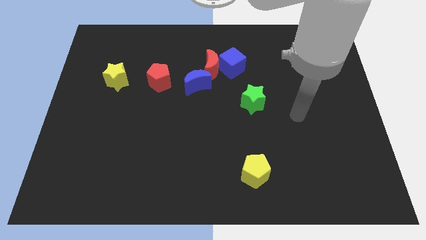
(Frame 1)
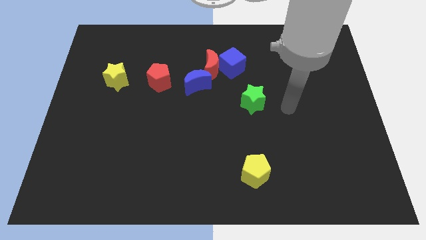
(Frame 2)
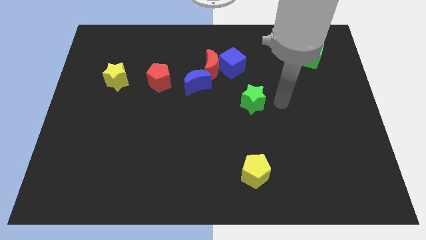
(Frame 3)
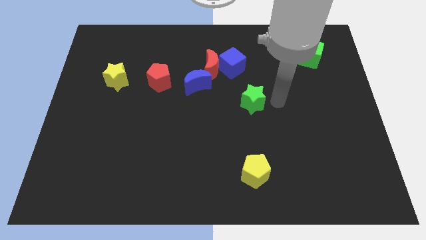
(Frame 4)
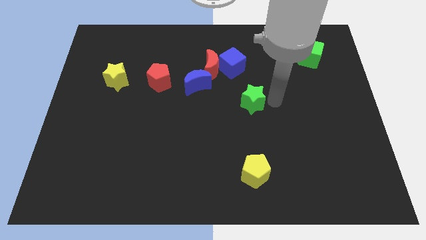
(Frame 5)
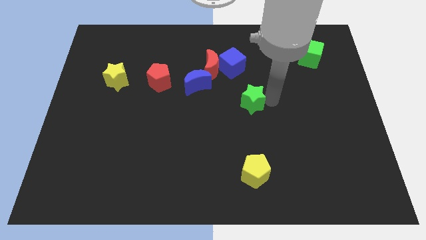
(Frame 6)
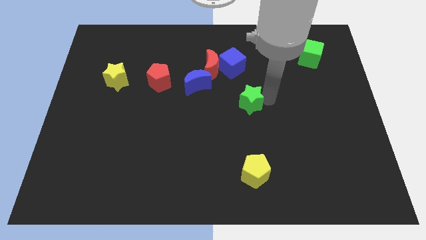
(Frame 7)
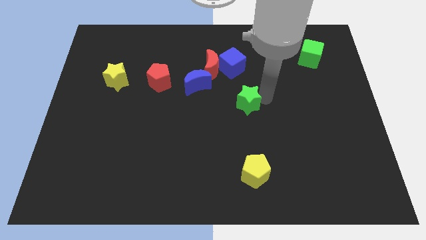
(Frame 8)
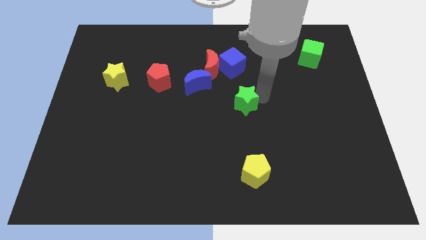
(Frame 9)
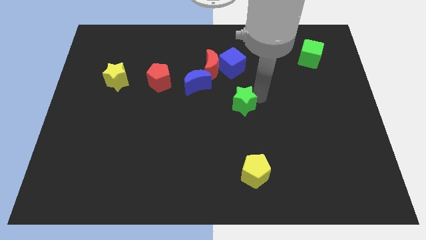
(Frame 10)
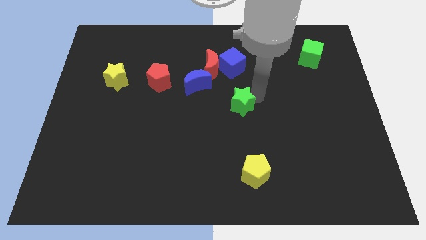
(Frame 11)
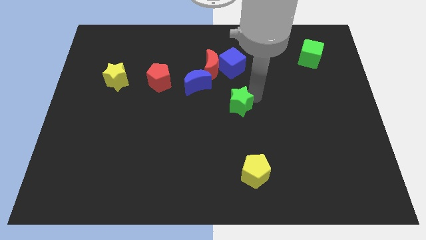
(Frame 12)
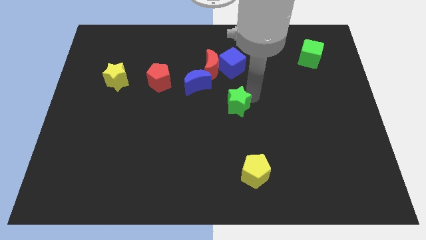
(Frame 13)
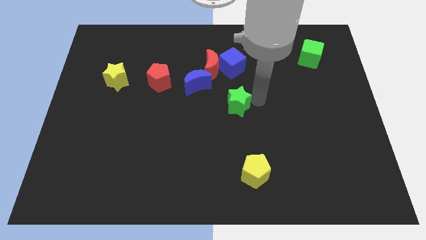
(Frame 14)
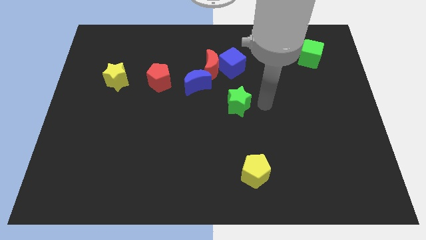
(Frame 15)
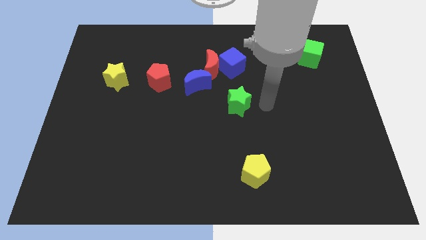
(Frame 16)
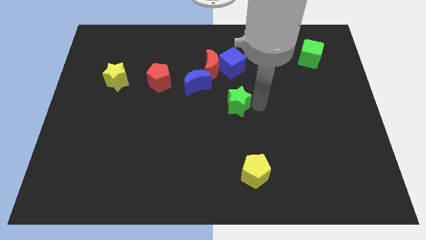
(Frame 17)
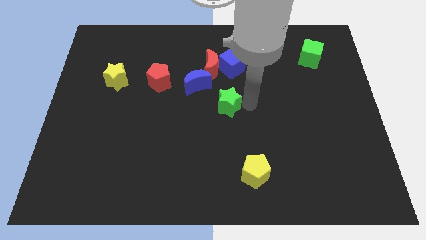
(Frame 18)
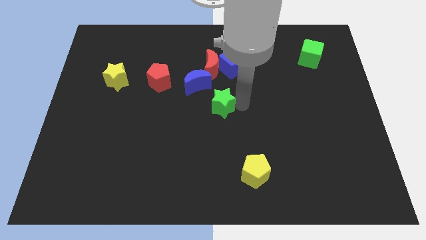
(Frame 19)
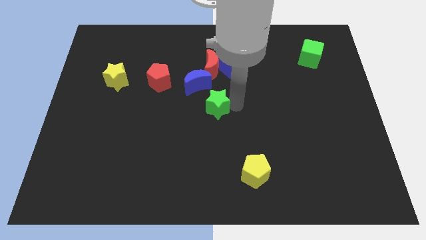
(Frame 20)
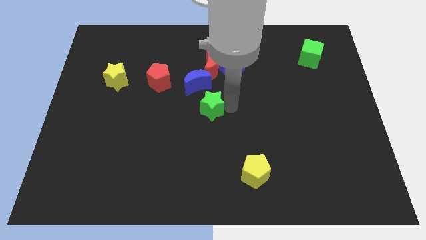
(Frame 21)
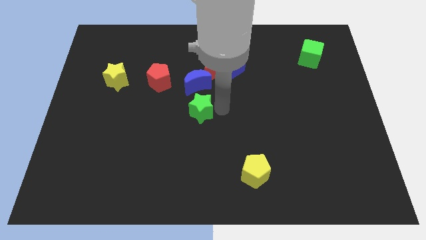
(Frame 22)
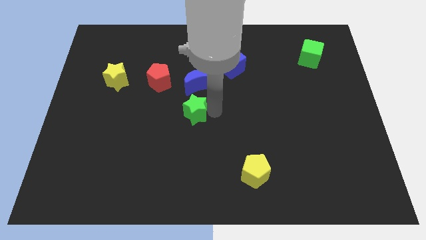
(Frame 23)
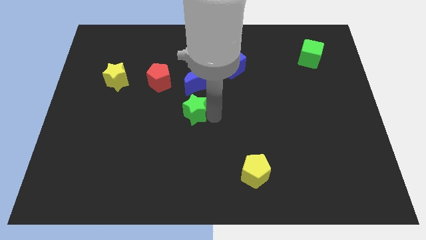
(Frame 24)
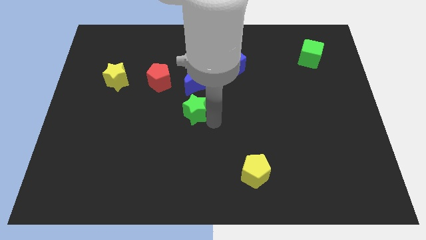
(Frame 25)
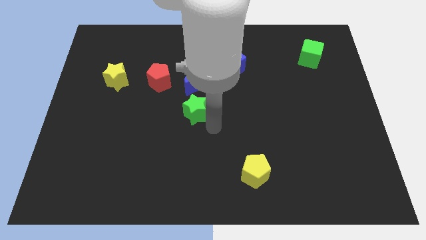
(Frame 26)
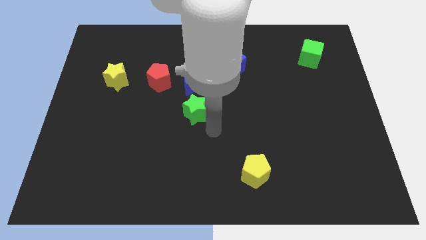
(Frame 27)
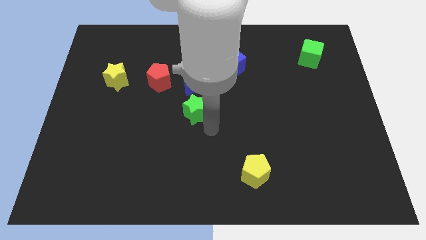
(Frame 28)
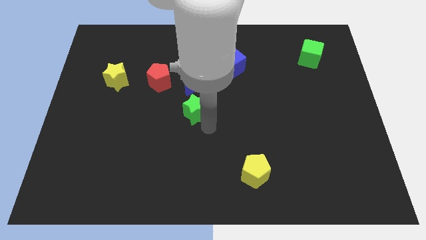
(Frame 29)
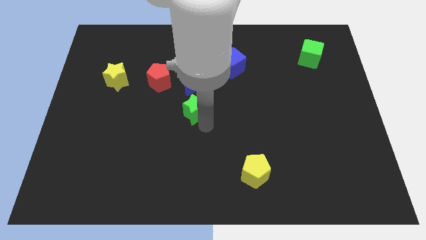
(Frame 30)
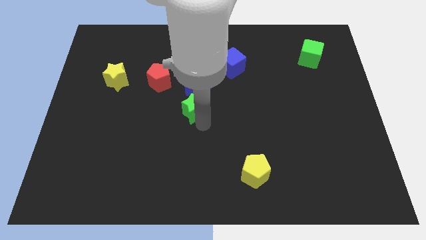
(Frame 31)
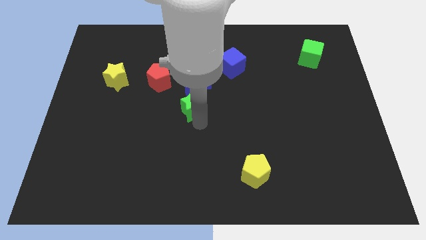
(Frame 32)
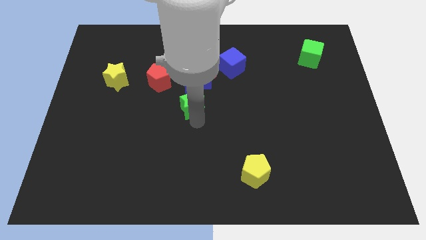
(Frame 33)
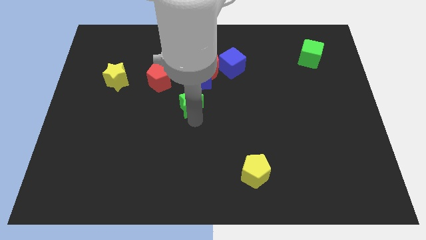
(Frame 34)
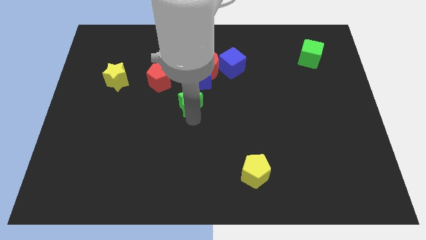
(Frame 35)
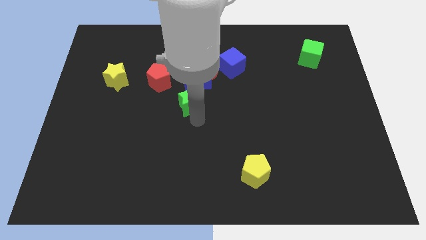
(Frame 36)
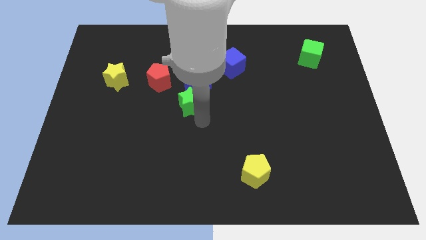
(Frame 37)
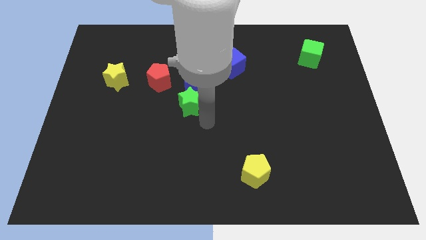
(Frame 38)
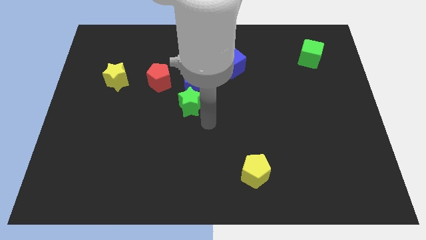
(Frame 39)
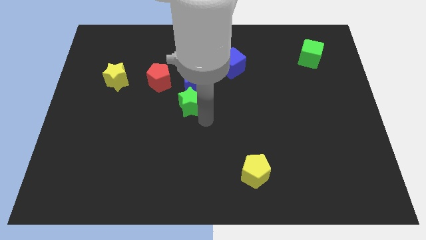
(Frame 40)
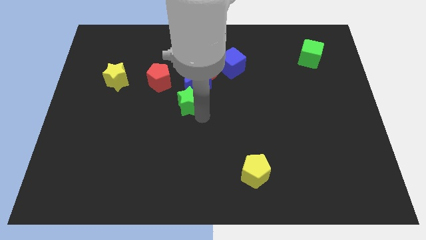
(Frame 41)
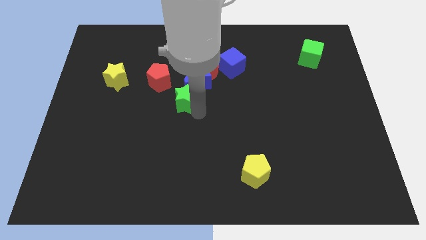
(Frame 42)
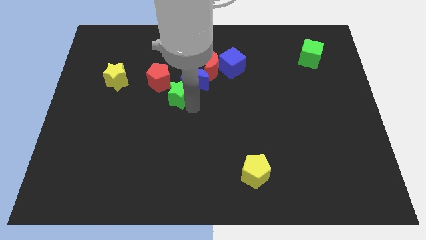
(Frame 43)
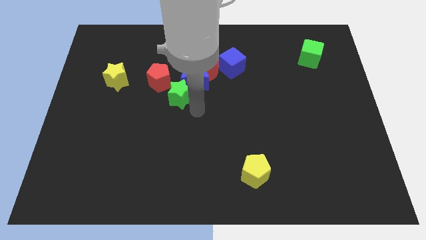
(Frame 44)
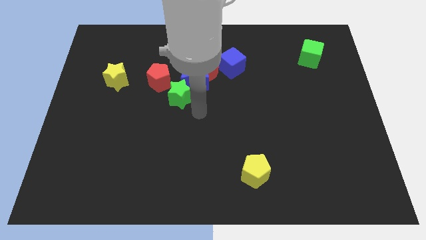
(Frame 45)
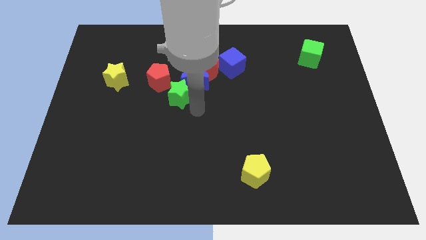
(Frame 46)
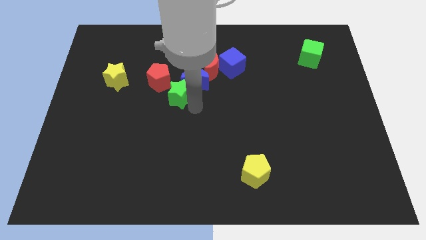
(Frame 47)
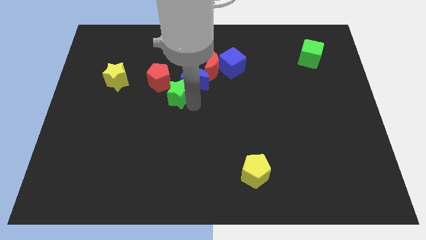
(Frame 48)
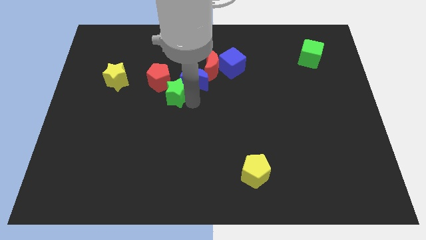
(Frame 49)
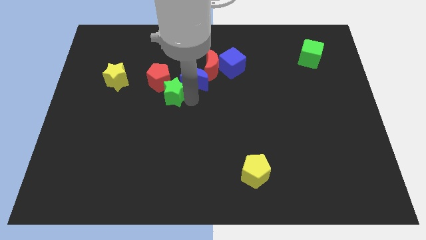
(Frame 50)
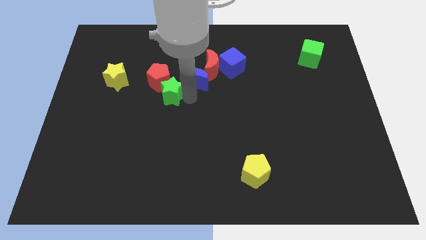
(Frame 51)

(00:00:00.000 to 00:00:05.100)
put the green star close to the red pentagon

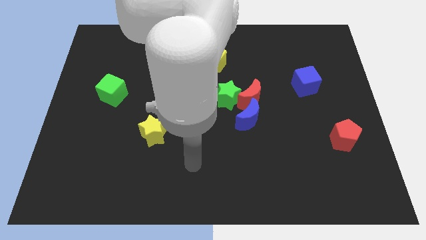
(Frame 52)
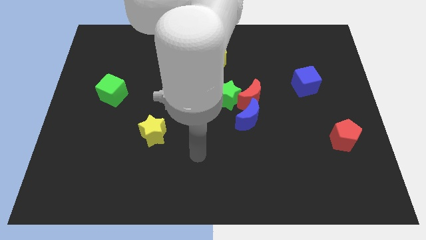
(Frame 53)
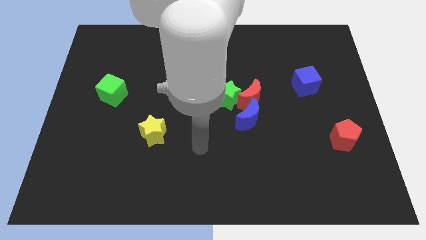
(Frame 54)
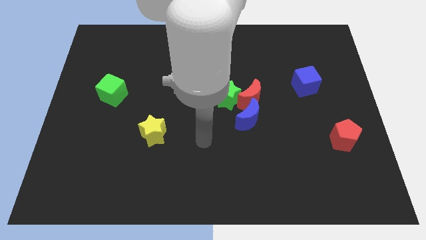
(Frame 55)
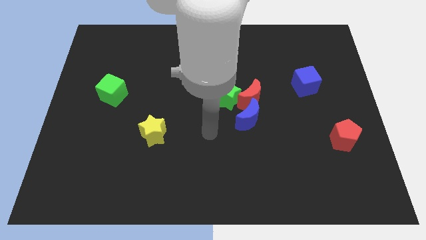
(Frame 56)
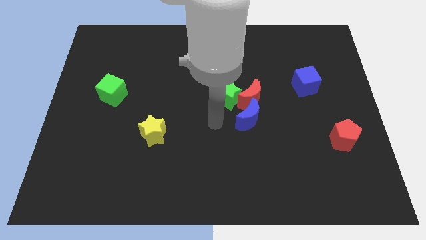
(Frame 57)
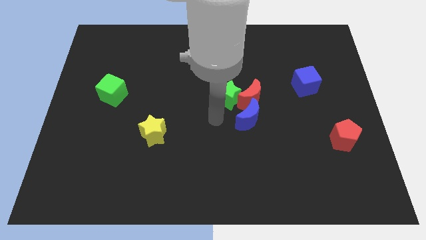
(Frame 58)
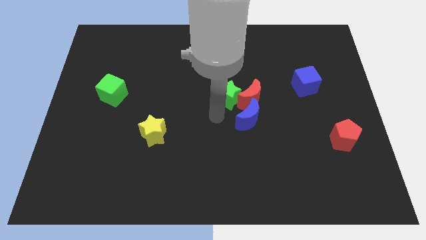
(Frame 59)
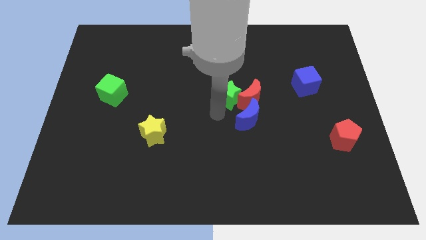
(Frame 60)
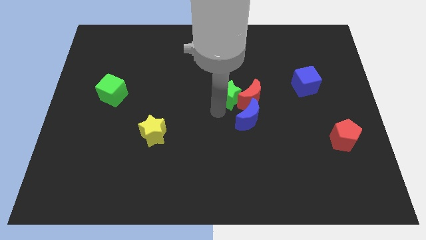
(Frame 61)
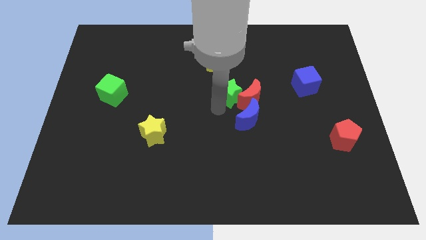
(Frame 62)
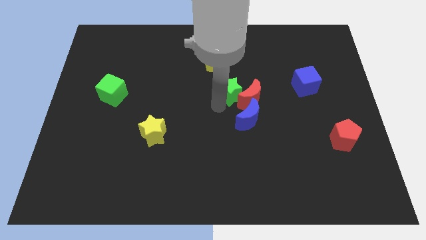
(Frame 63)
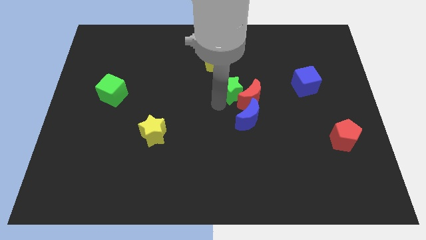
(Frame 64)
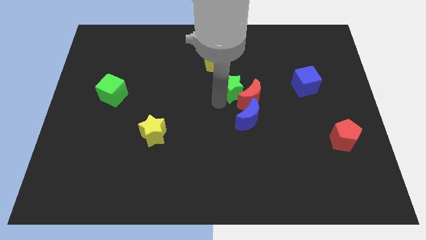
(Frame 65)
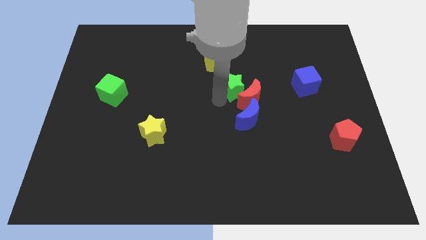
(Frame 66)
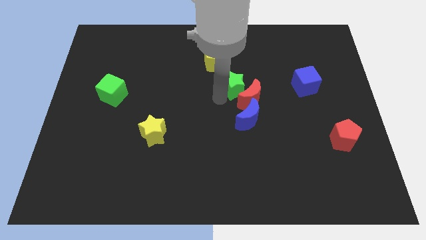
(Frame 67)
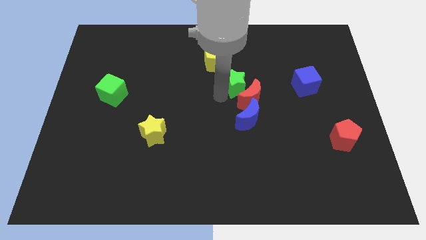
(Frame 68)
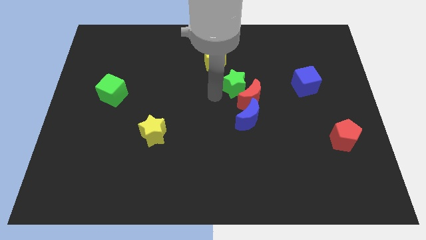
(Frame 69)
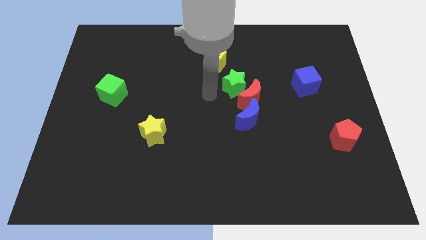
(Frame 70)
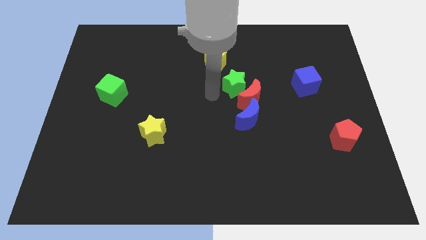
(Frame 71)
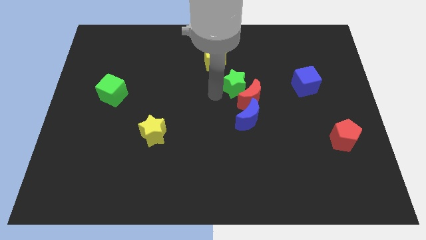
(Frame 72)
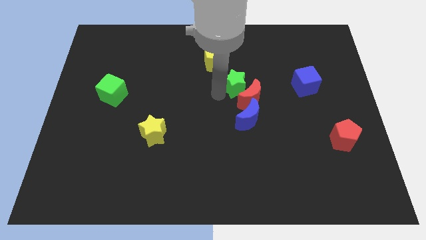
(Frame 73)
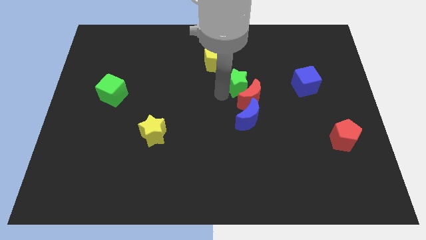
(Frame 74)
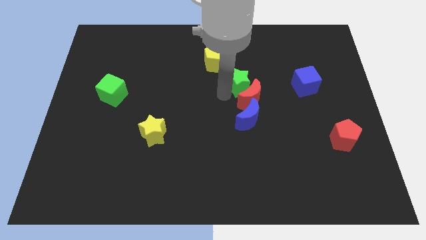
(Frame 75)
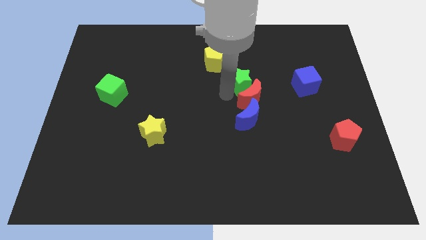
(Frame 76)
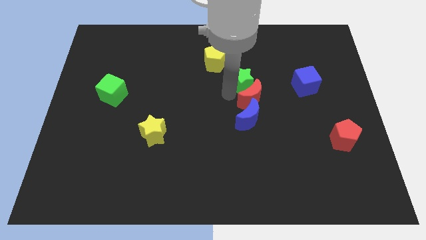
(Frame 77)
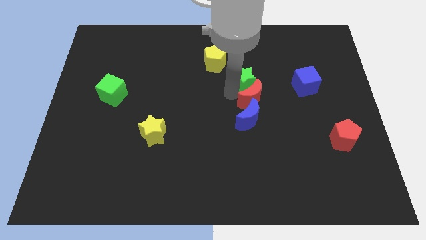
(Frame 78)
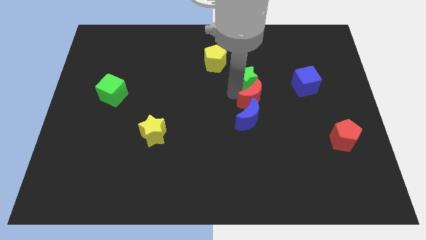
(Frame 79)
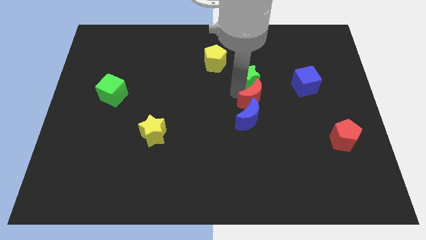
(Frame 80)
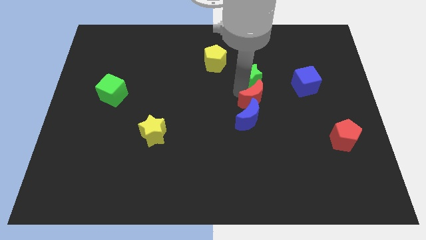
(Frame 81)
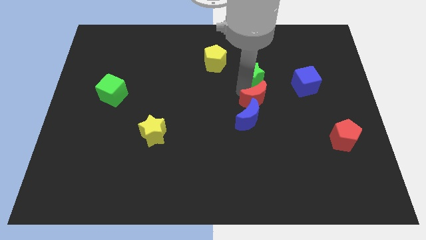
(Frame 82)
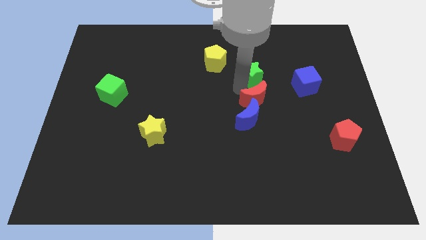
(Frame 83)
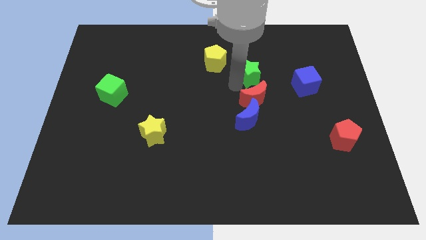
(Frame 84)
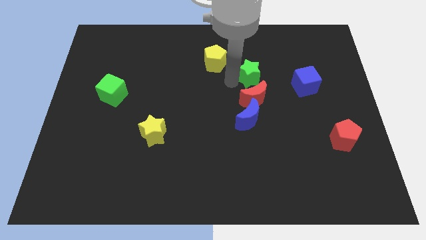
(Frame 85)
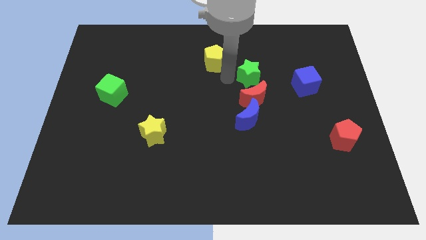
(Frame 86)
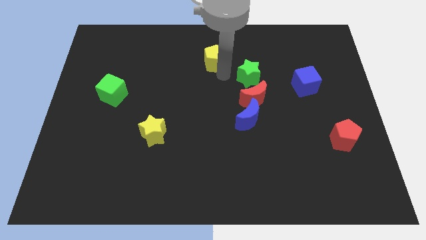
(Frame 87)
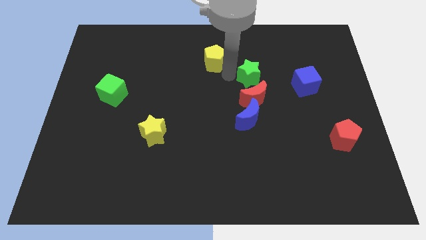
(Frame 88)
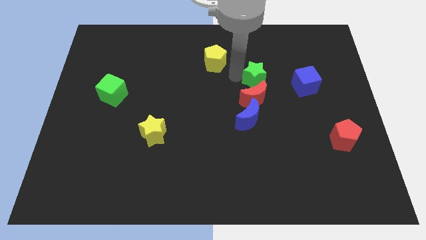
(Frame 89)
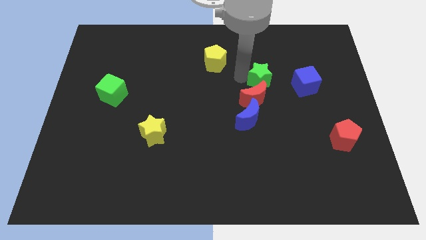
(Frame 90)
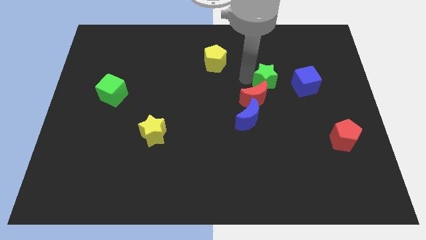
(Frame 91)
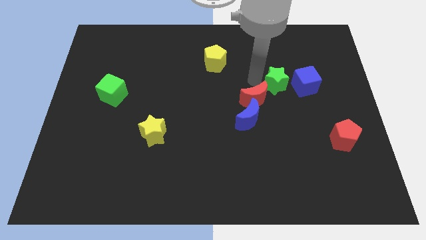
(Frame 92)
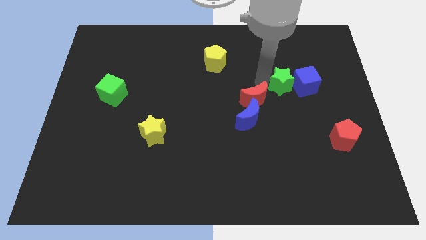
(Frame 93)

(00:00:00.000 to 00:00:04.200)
slide the green star towards the blue cube
